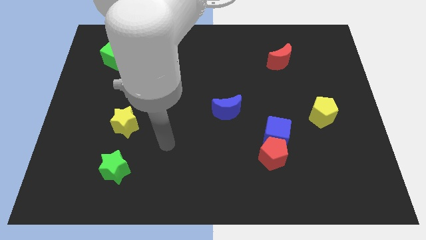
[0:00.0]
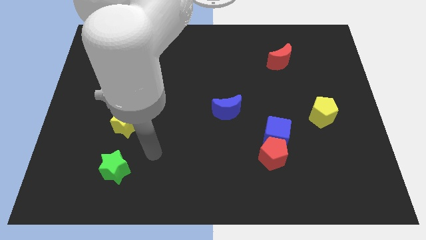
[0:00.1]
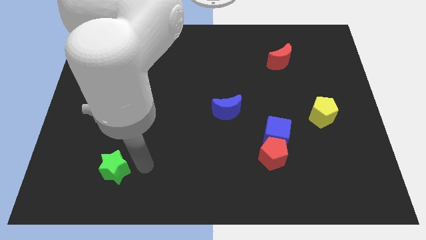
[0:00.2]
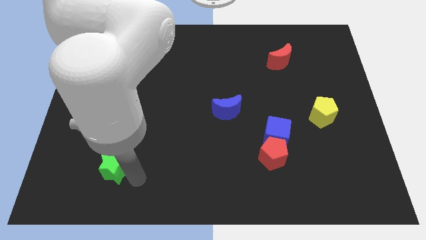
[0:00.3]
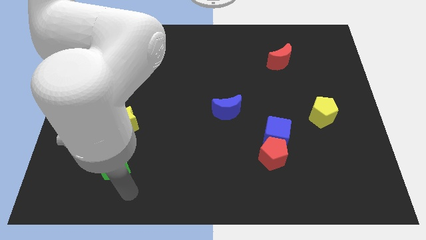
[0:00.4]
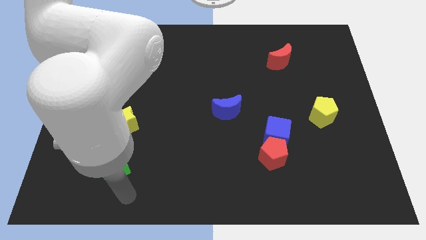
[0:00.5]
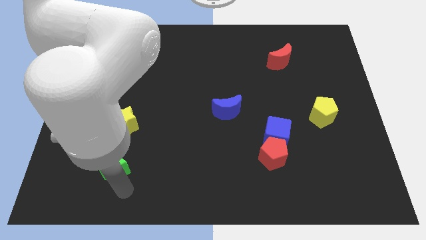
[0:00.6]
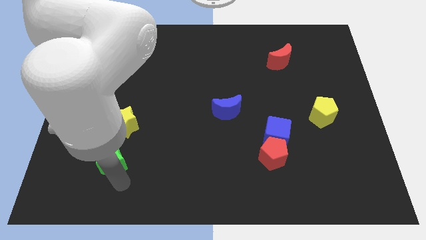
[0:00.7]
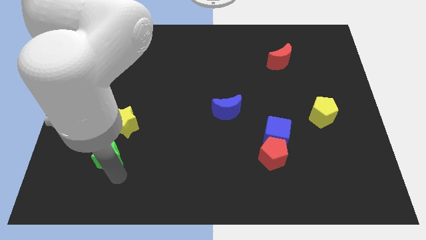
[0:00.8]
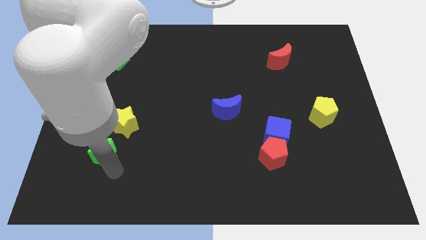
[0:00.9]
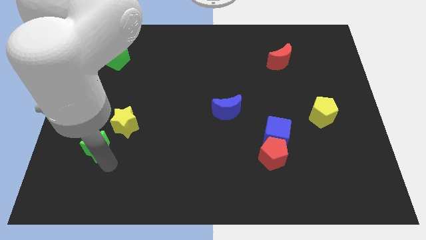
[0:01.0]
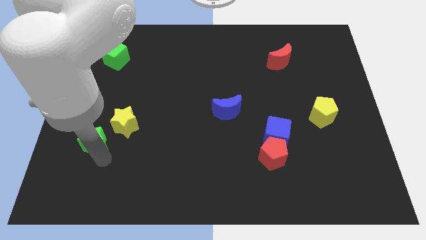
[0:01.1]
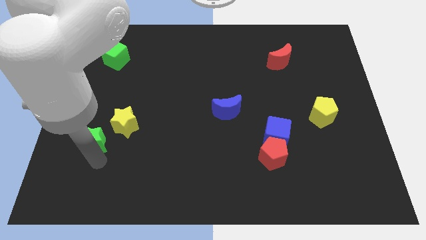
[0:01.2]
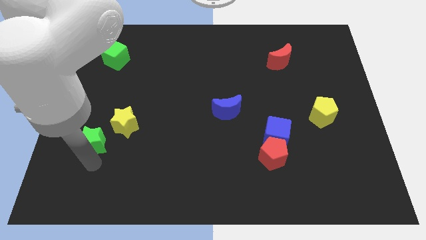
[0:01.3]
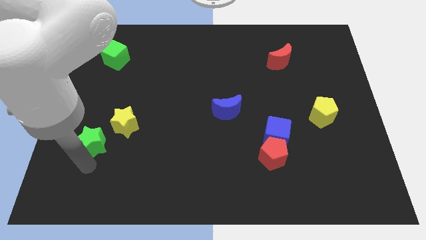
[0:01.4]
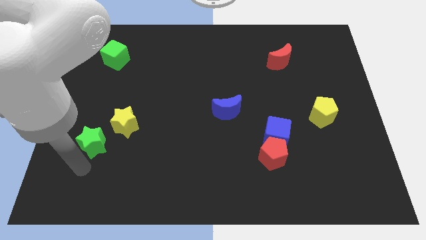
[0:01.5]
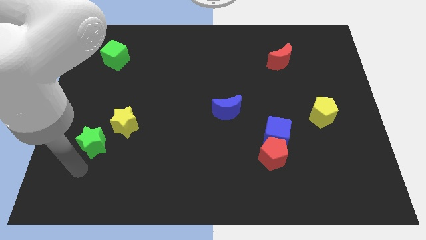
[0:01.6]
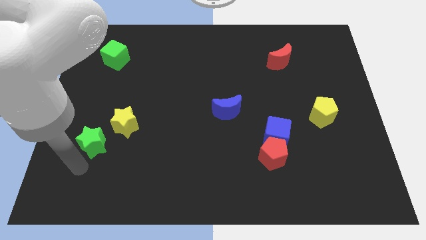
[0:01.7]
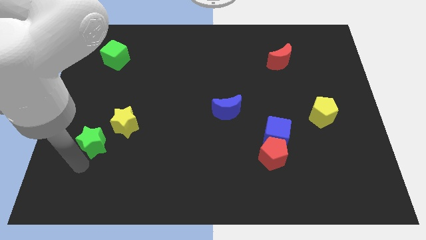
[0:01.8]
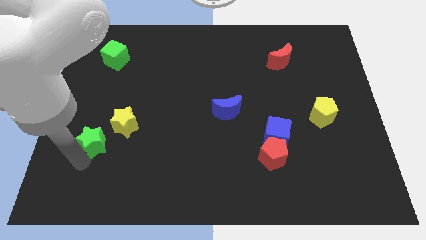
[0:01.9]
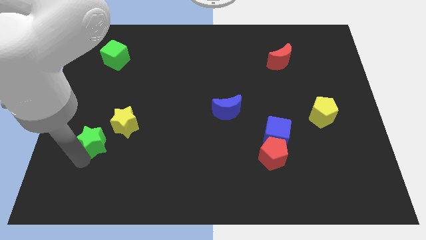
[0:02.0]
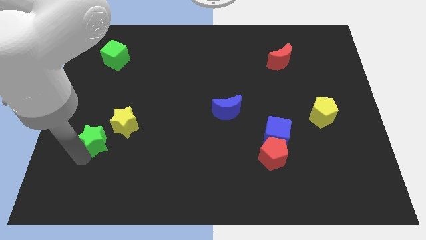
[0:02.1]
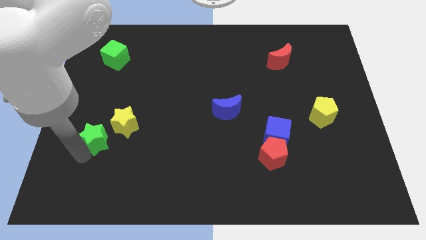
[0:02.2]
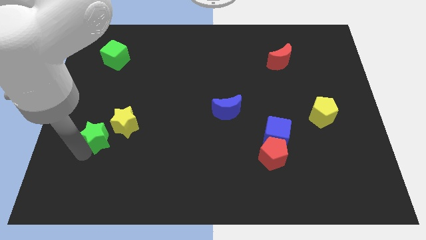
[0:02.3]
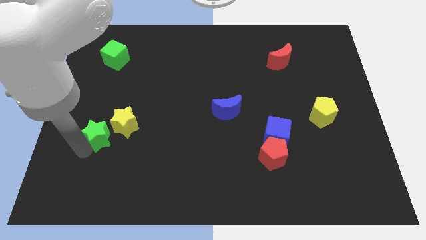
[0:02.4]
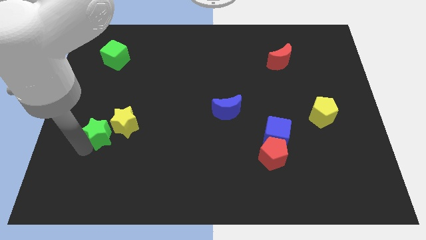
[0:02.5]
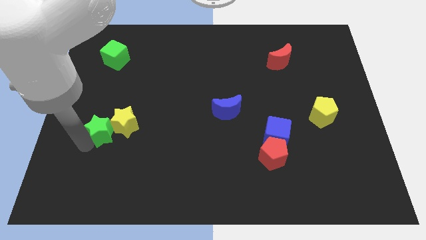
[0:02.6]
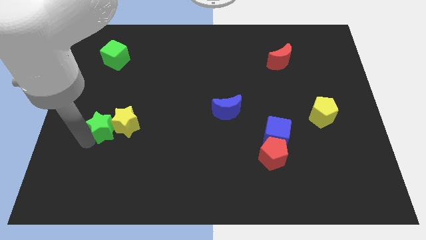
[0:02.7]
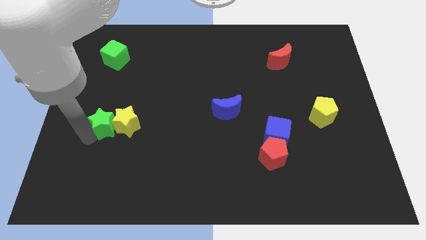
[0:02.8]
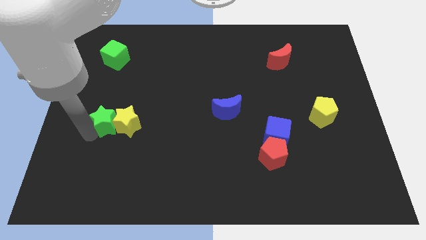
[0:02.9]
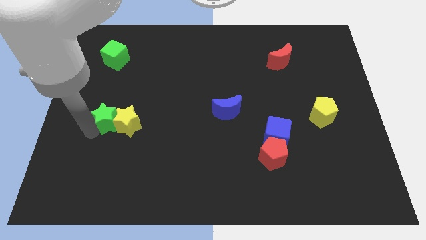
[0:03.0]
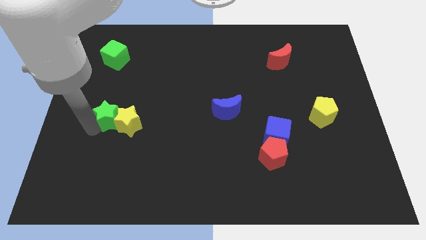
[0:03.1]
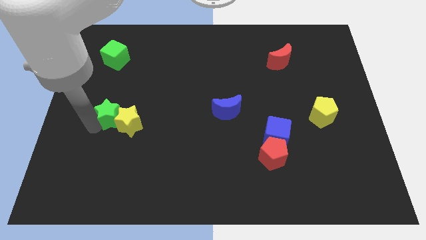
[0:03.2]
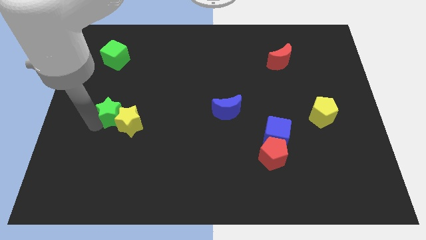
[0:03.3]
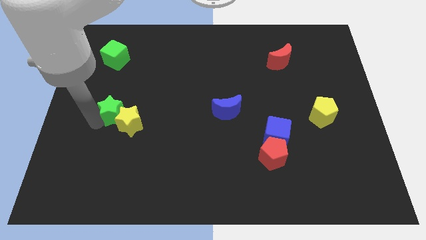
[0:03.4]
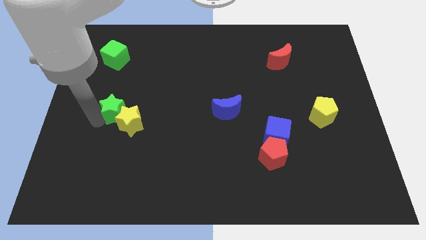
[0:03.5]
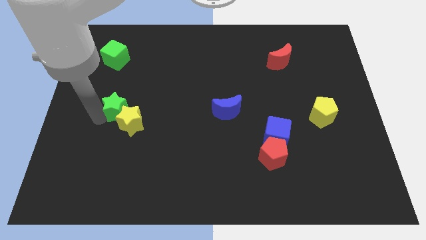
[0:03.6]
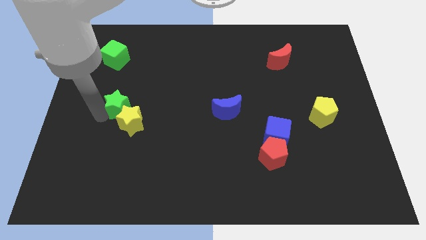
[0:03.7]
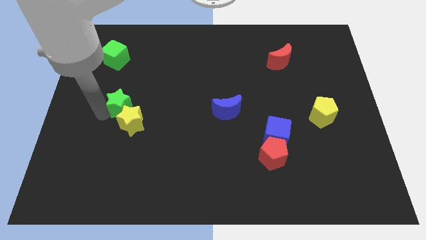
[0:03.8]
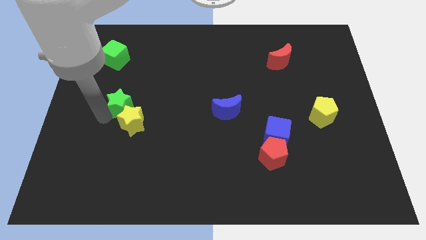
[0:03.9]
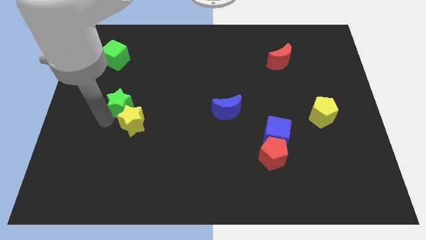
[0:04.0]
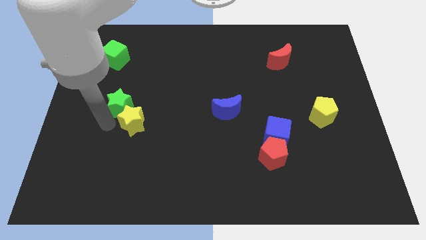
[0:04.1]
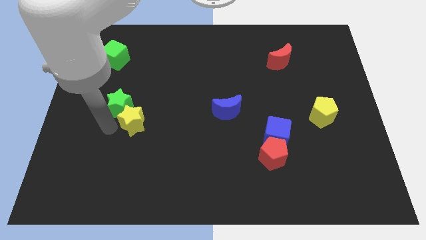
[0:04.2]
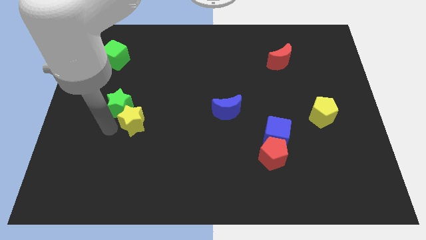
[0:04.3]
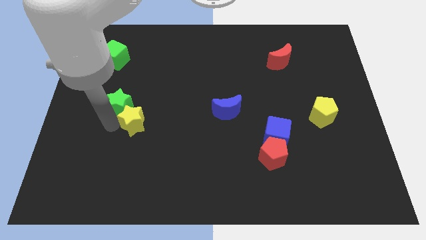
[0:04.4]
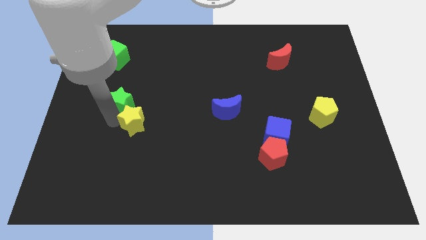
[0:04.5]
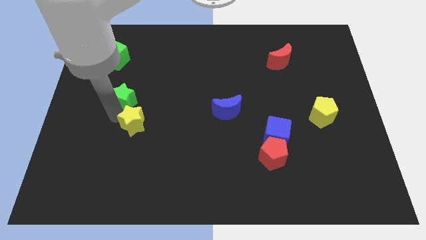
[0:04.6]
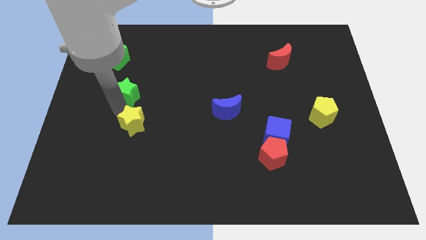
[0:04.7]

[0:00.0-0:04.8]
slide the green star upwards

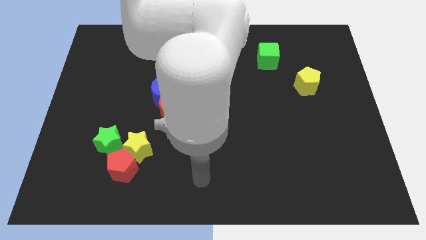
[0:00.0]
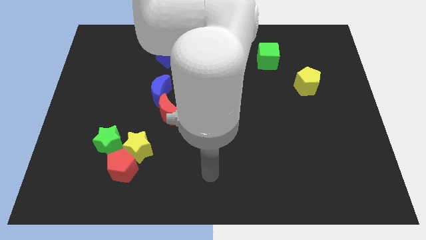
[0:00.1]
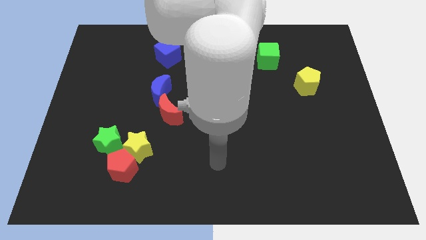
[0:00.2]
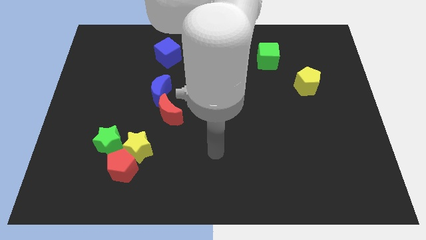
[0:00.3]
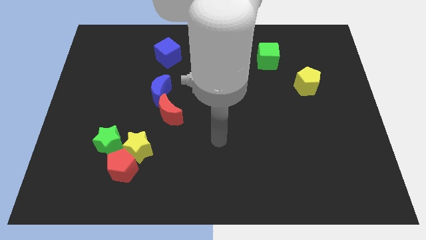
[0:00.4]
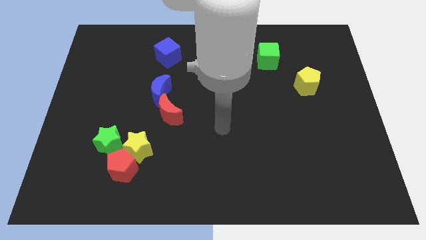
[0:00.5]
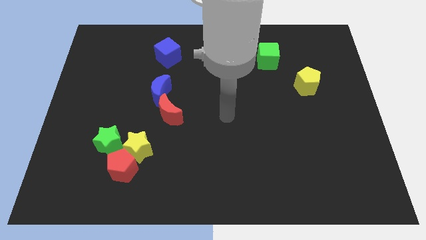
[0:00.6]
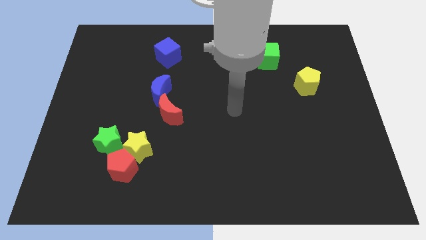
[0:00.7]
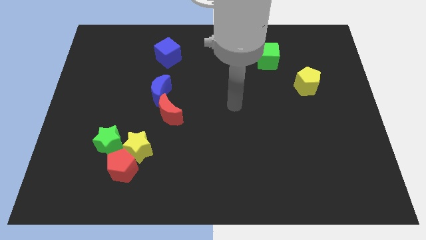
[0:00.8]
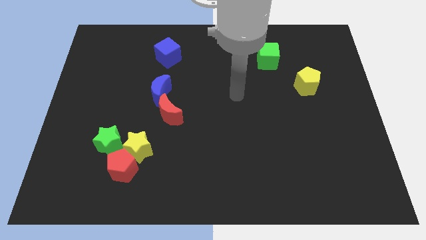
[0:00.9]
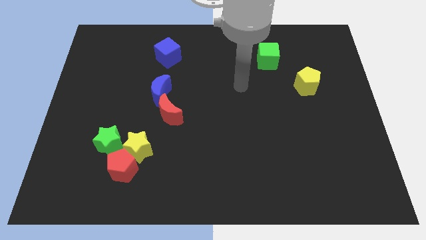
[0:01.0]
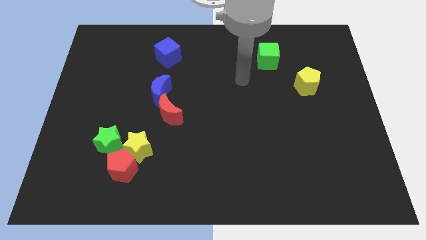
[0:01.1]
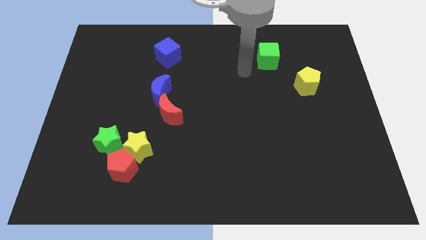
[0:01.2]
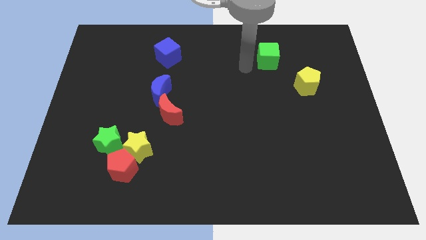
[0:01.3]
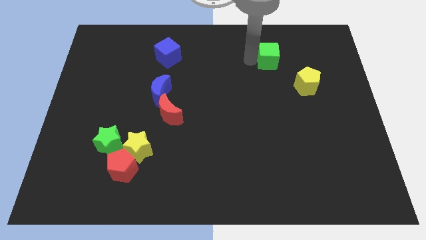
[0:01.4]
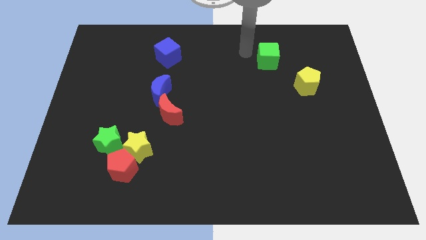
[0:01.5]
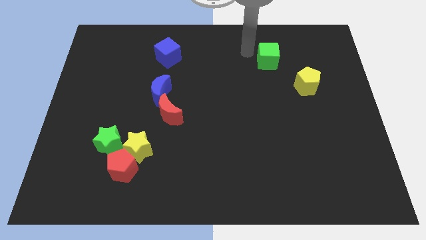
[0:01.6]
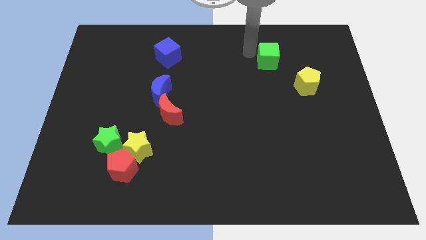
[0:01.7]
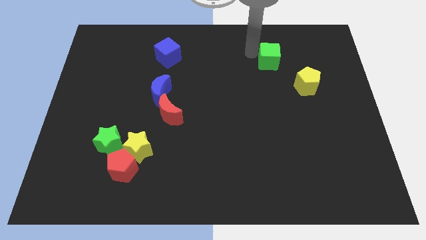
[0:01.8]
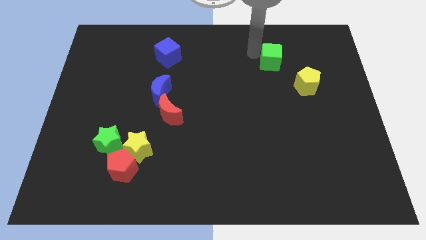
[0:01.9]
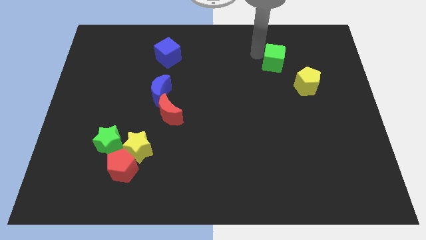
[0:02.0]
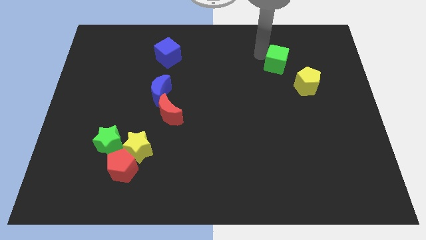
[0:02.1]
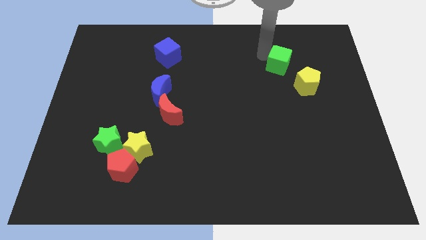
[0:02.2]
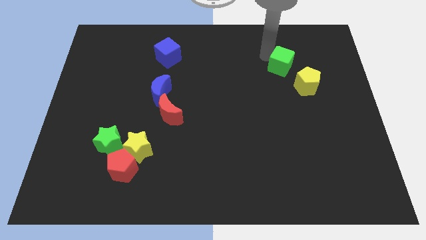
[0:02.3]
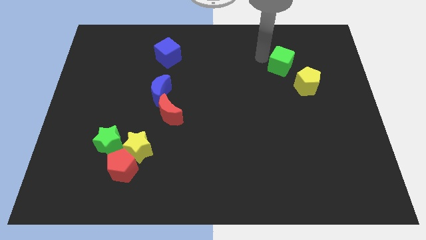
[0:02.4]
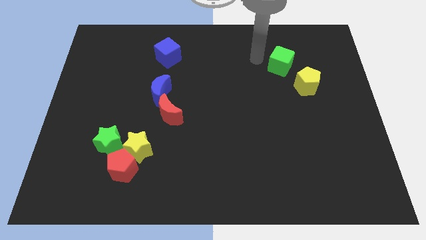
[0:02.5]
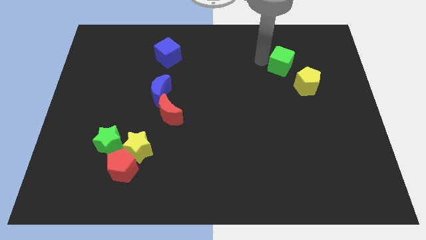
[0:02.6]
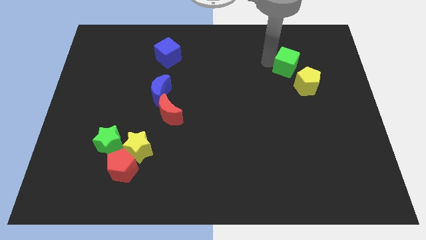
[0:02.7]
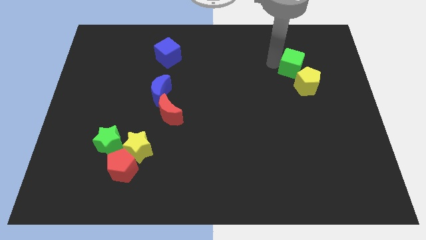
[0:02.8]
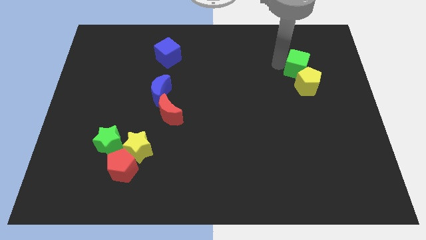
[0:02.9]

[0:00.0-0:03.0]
push the green cube down and to the right slightly

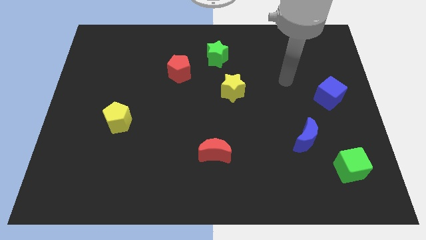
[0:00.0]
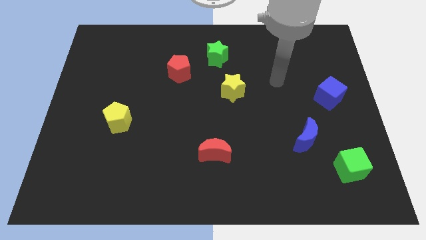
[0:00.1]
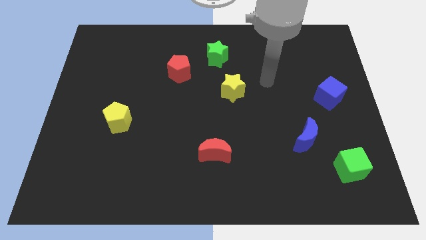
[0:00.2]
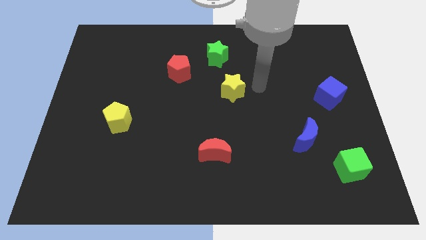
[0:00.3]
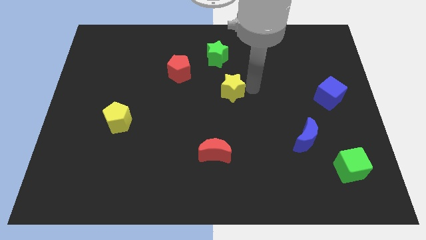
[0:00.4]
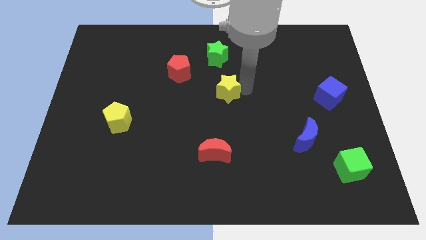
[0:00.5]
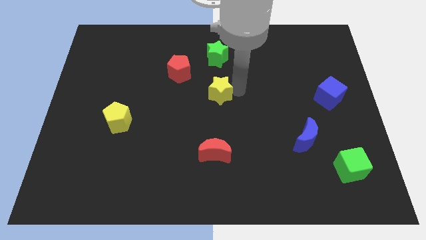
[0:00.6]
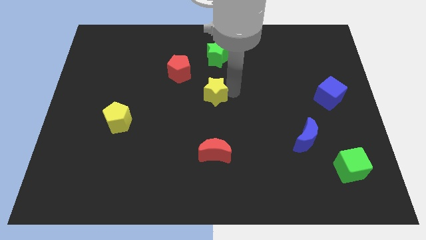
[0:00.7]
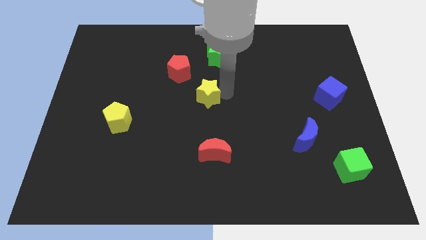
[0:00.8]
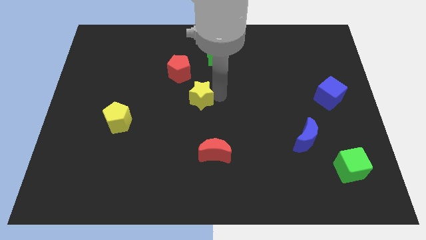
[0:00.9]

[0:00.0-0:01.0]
move the yellow star somewhat to the left
